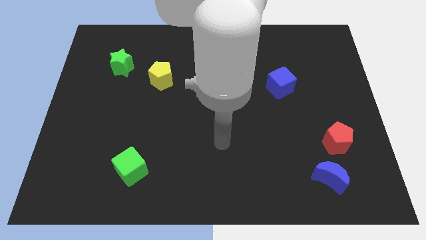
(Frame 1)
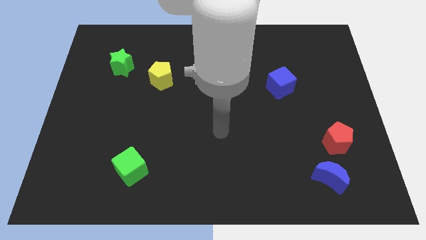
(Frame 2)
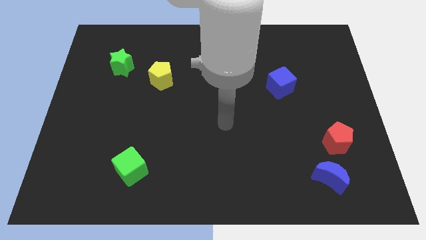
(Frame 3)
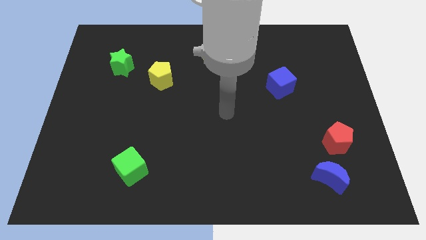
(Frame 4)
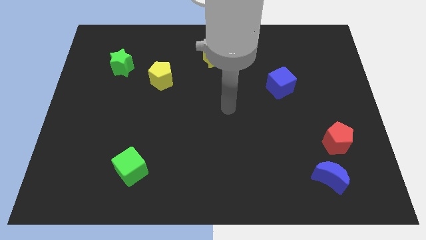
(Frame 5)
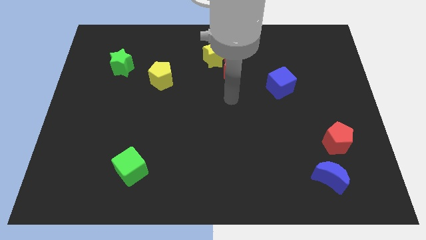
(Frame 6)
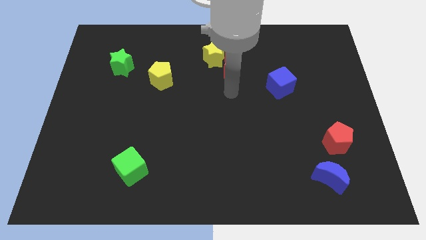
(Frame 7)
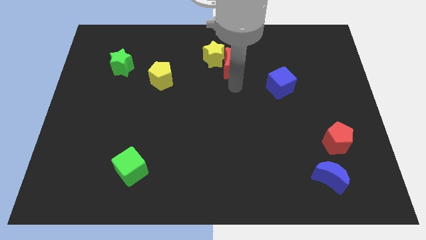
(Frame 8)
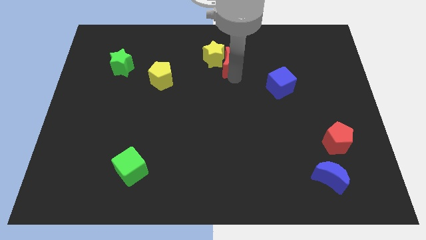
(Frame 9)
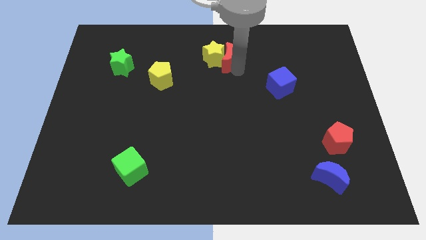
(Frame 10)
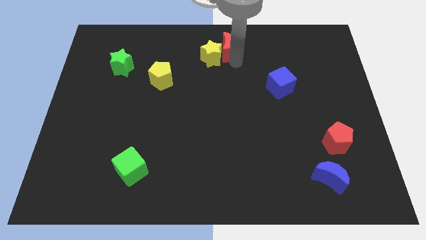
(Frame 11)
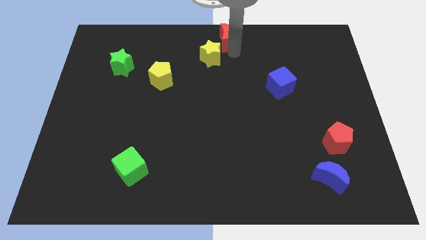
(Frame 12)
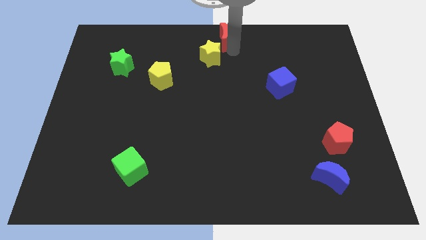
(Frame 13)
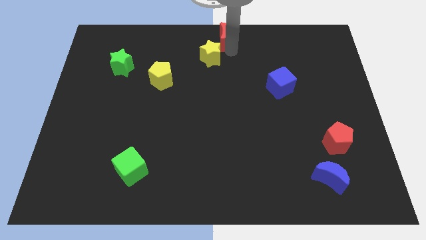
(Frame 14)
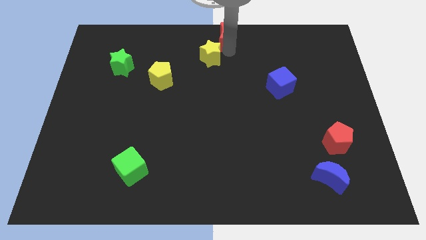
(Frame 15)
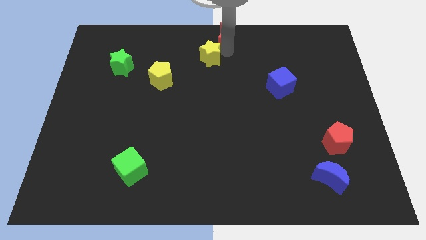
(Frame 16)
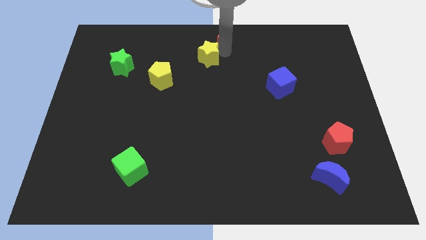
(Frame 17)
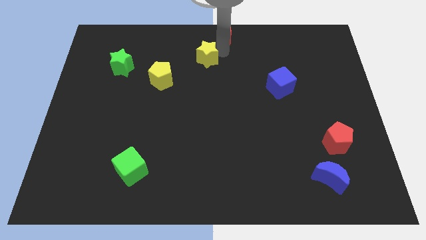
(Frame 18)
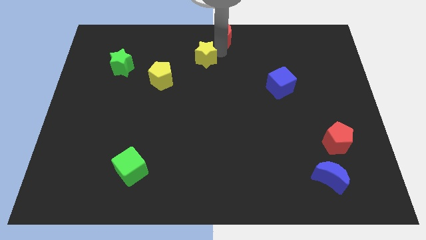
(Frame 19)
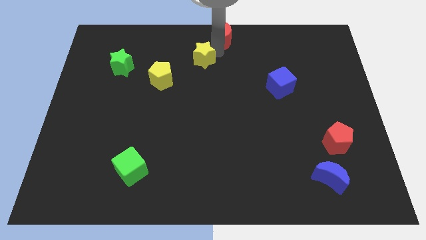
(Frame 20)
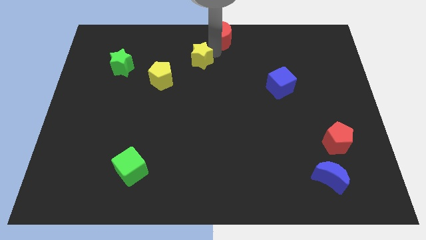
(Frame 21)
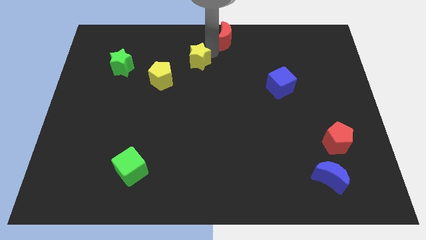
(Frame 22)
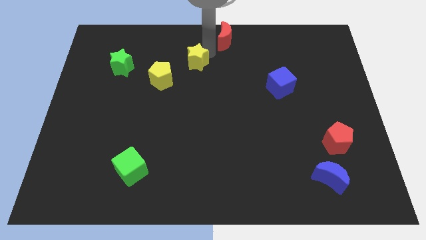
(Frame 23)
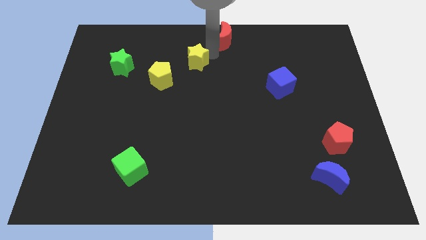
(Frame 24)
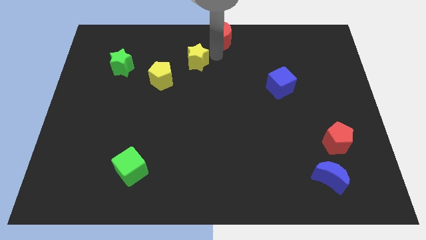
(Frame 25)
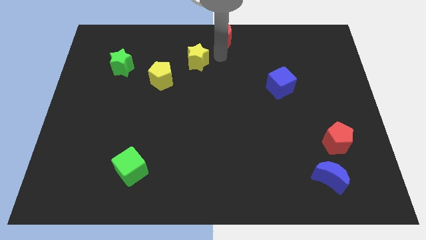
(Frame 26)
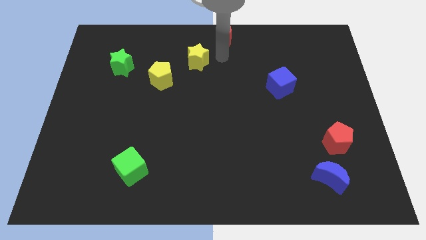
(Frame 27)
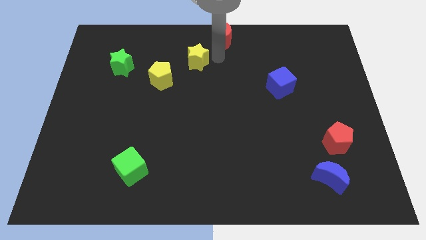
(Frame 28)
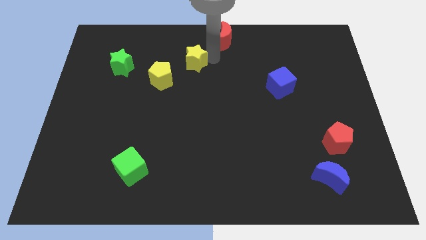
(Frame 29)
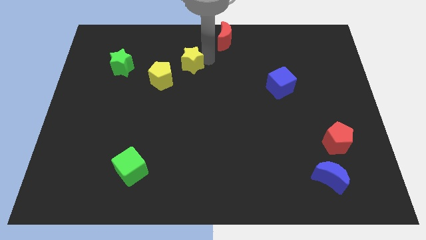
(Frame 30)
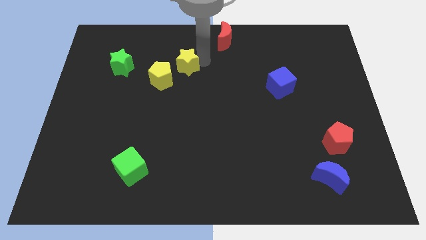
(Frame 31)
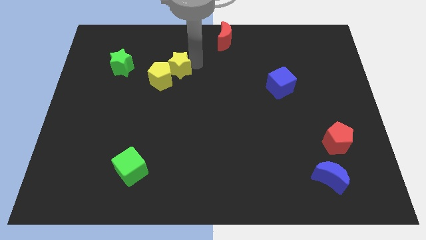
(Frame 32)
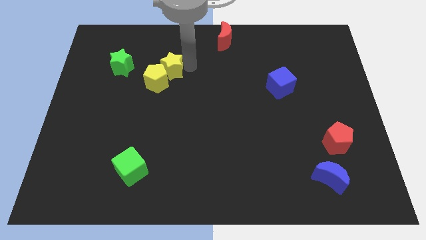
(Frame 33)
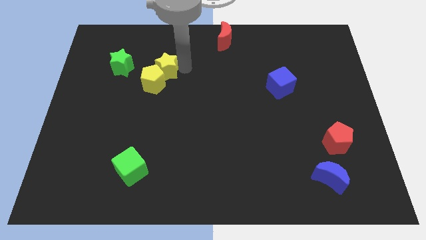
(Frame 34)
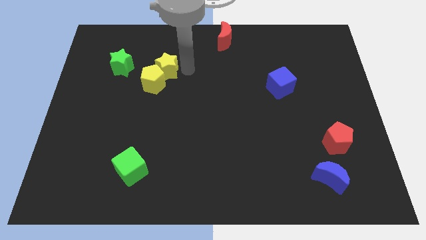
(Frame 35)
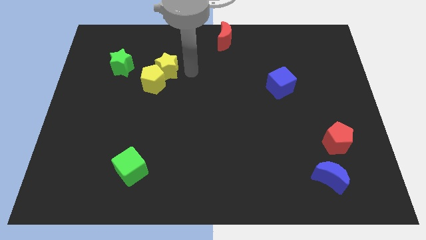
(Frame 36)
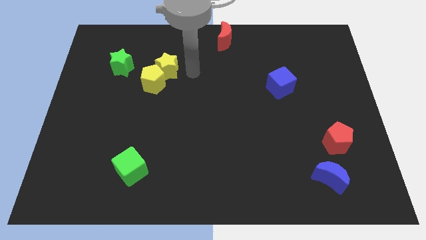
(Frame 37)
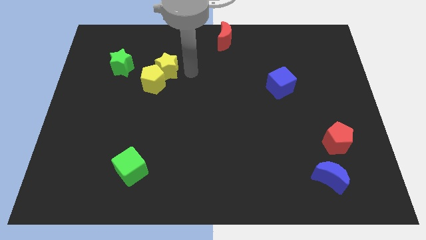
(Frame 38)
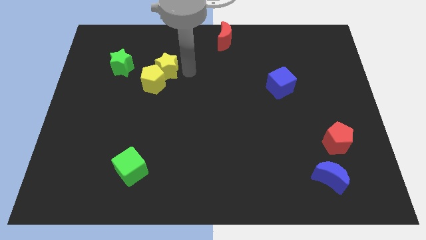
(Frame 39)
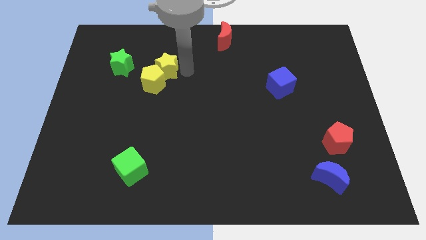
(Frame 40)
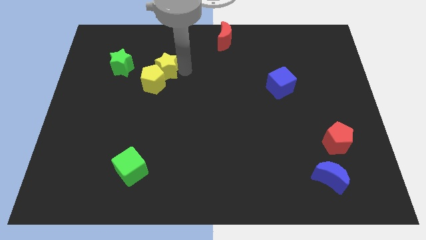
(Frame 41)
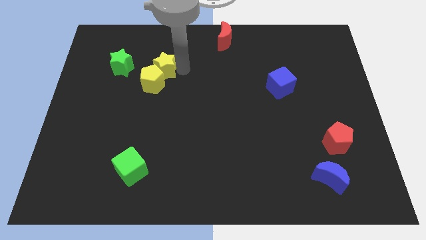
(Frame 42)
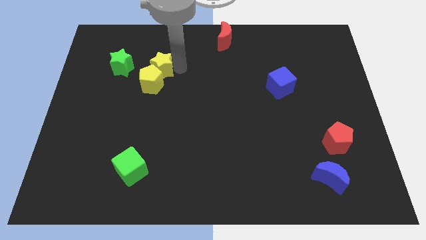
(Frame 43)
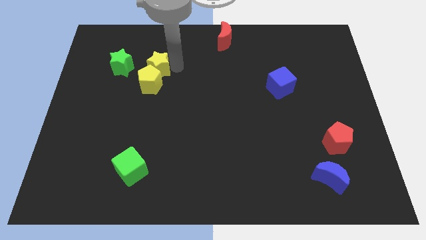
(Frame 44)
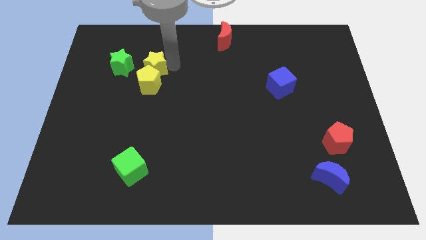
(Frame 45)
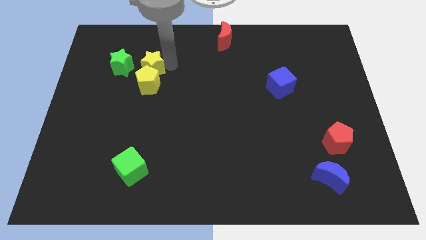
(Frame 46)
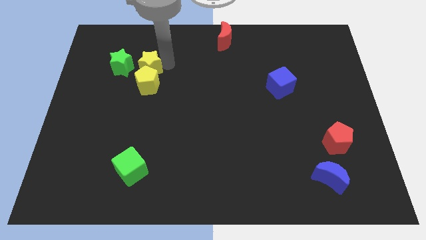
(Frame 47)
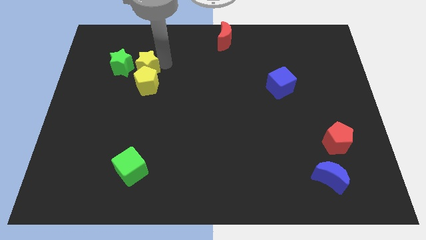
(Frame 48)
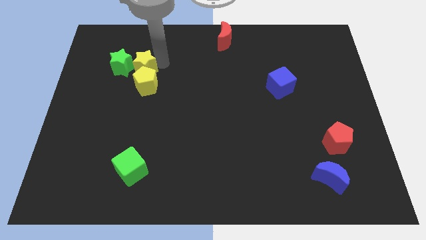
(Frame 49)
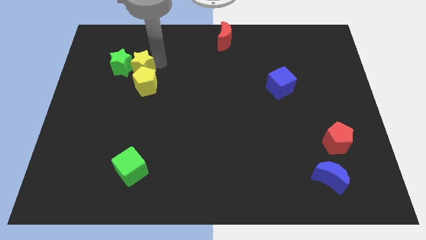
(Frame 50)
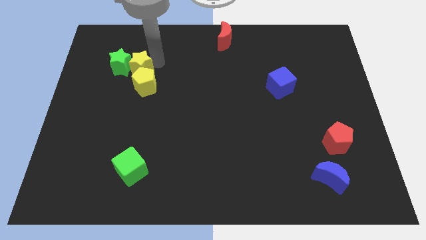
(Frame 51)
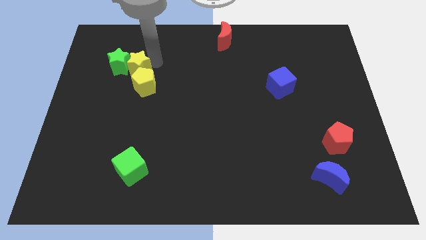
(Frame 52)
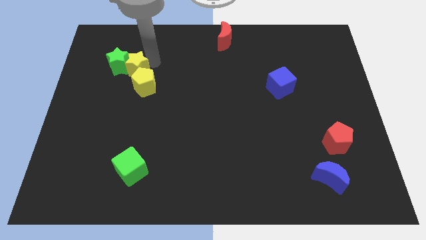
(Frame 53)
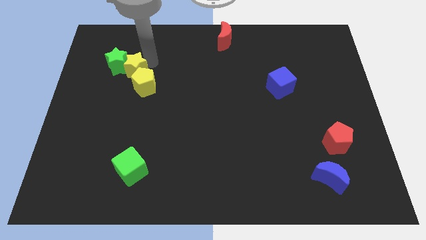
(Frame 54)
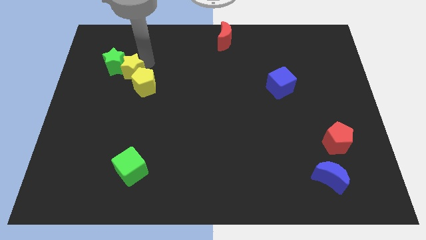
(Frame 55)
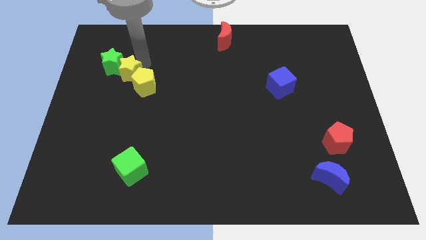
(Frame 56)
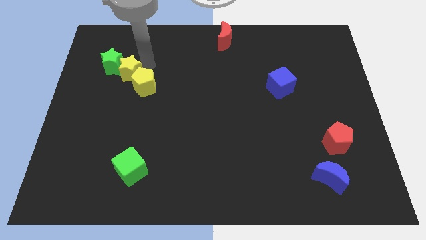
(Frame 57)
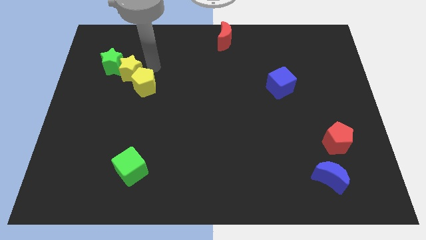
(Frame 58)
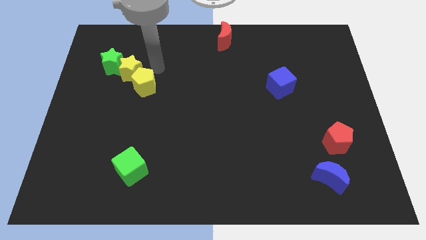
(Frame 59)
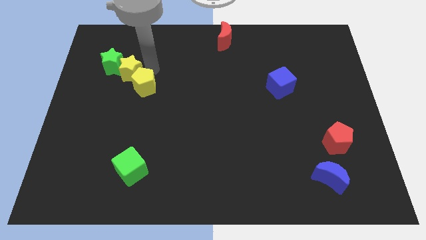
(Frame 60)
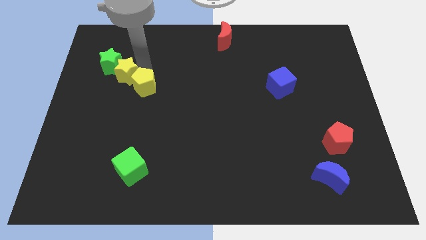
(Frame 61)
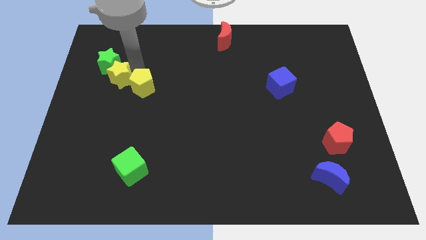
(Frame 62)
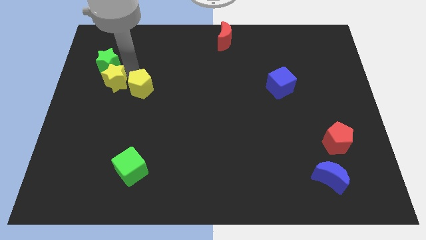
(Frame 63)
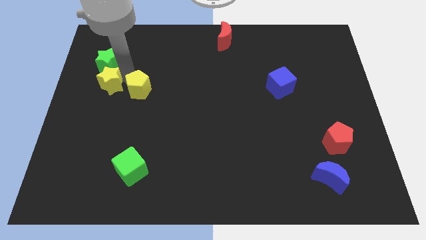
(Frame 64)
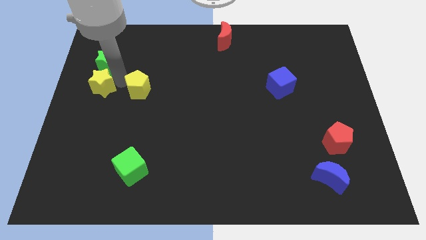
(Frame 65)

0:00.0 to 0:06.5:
put the yellow star to the center left
